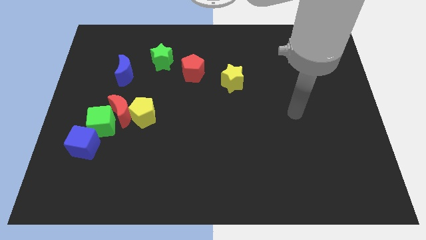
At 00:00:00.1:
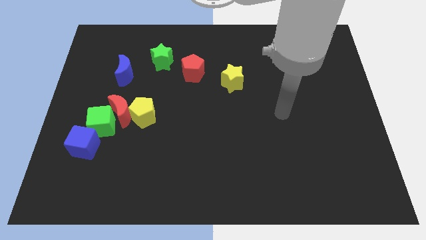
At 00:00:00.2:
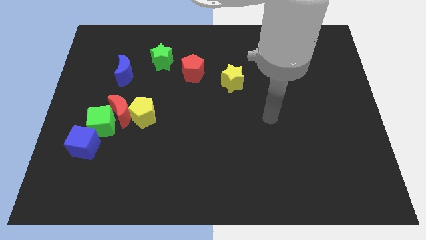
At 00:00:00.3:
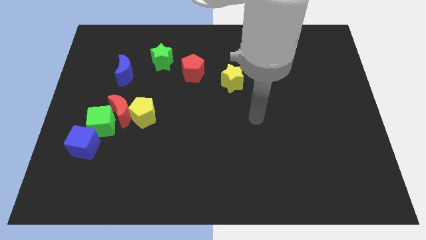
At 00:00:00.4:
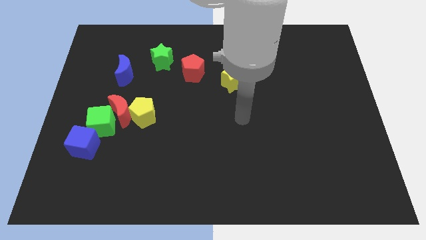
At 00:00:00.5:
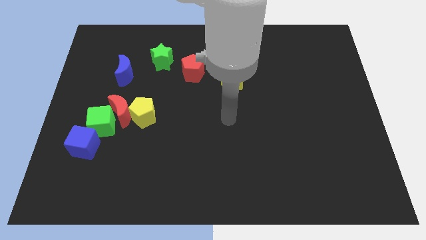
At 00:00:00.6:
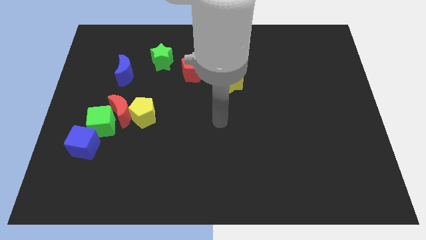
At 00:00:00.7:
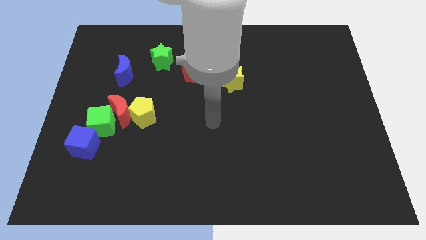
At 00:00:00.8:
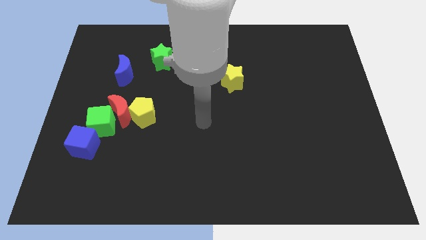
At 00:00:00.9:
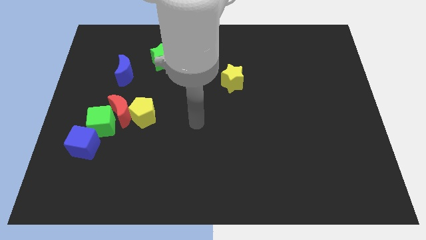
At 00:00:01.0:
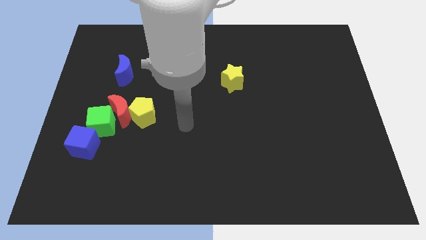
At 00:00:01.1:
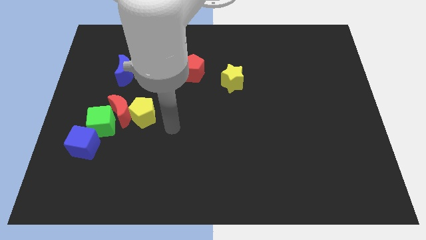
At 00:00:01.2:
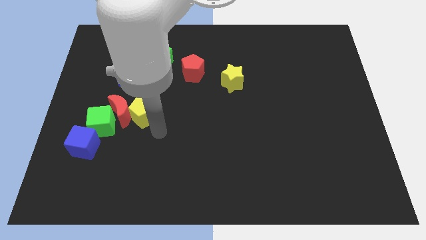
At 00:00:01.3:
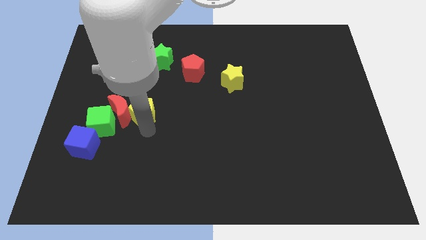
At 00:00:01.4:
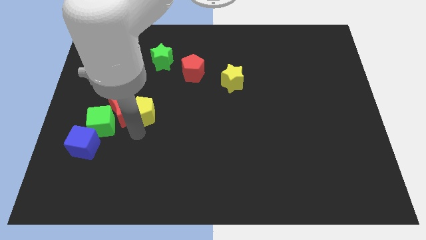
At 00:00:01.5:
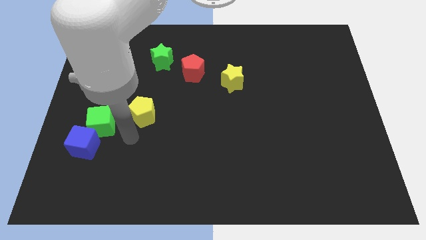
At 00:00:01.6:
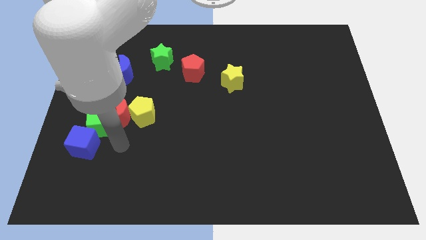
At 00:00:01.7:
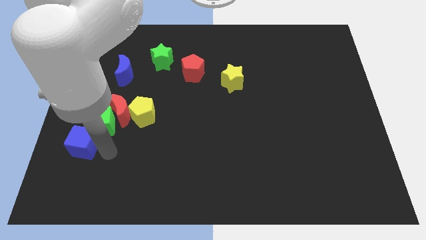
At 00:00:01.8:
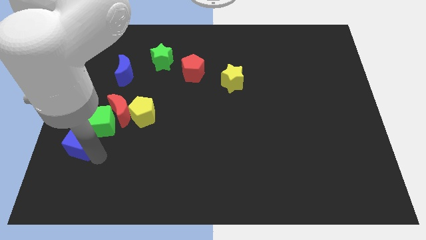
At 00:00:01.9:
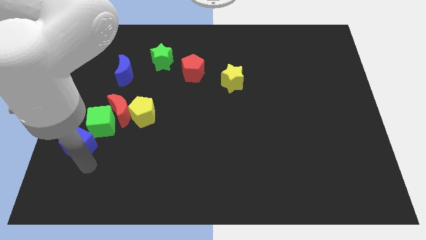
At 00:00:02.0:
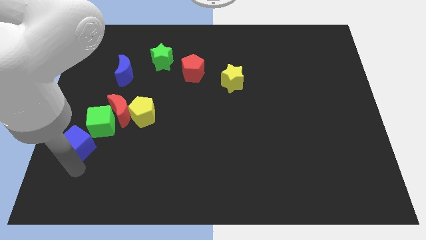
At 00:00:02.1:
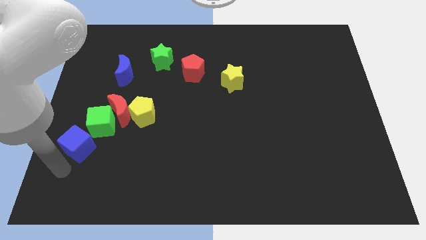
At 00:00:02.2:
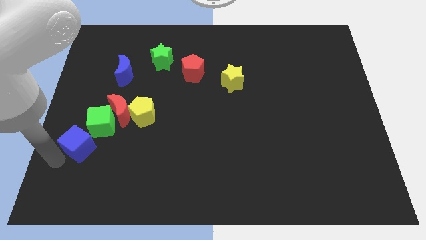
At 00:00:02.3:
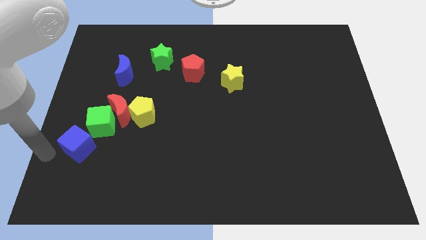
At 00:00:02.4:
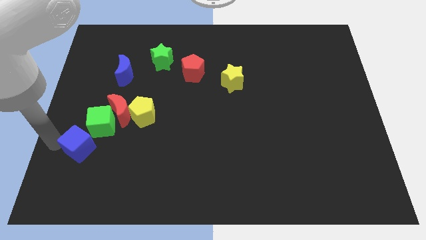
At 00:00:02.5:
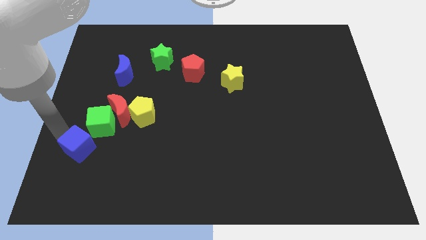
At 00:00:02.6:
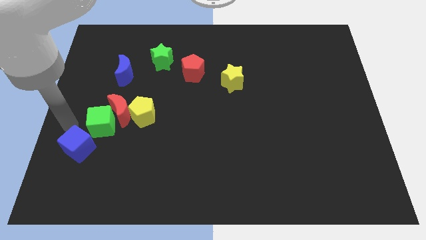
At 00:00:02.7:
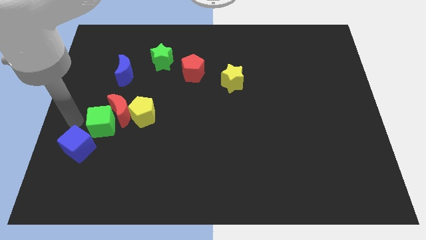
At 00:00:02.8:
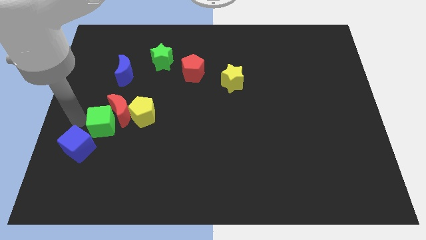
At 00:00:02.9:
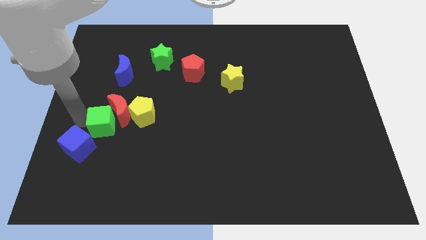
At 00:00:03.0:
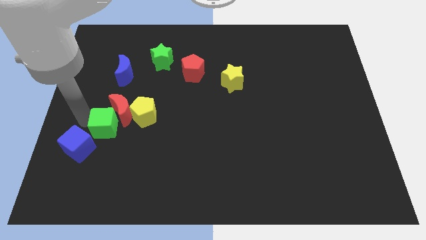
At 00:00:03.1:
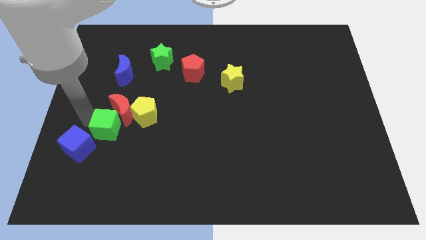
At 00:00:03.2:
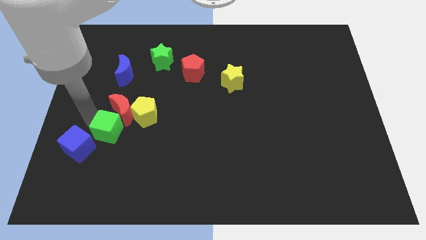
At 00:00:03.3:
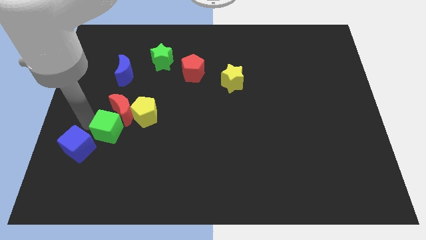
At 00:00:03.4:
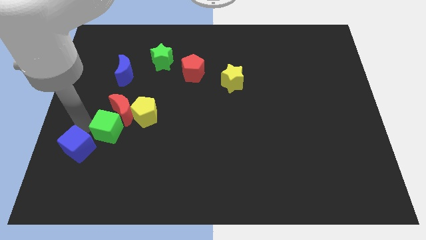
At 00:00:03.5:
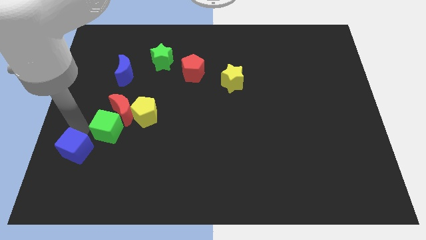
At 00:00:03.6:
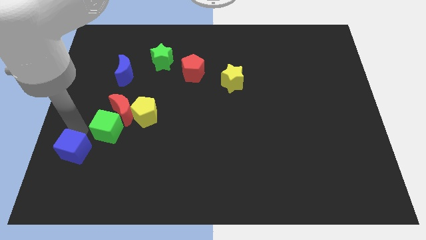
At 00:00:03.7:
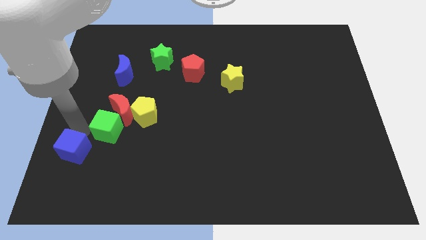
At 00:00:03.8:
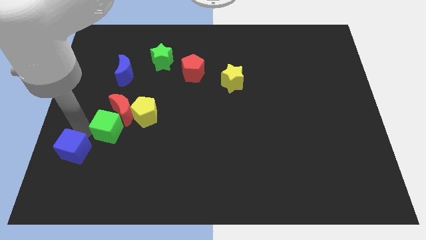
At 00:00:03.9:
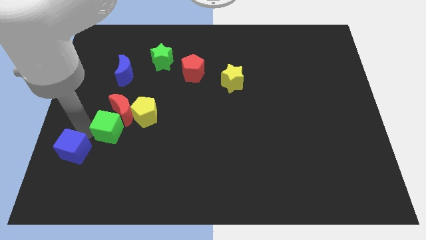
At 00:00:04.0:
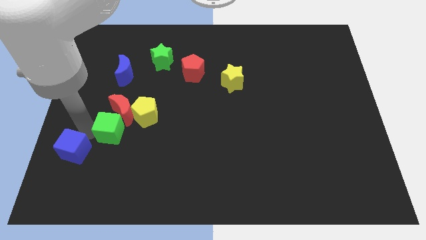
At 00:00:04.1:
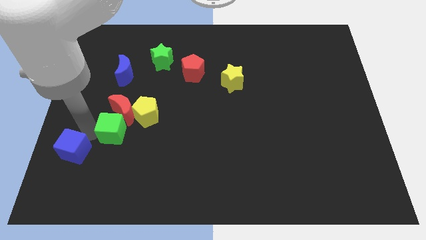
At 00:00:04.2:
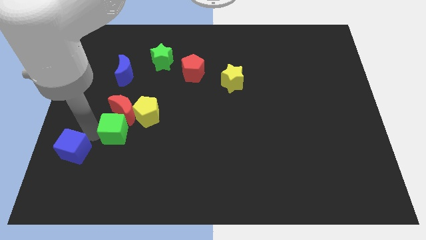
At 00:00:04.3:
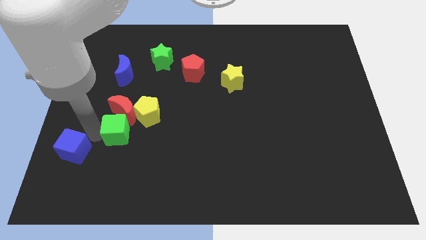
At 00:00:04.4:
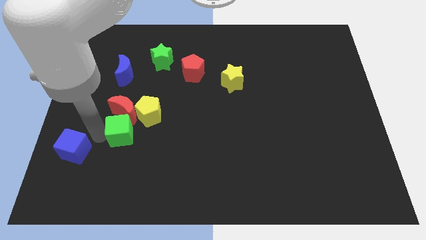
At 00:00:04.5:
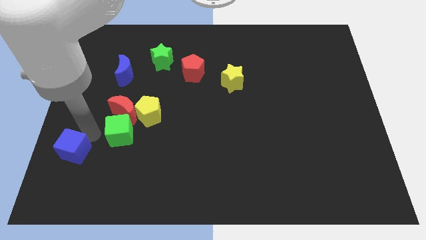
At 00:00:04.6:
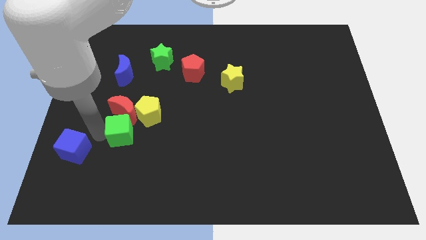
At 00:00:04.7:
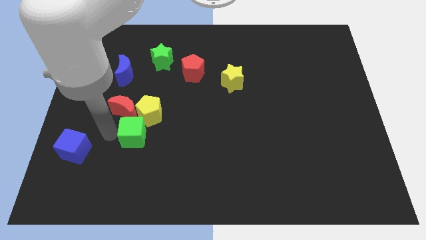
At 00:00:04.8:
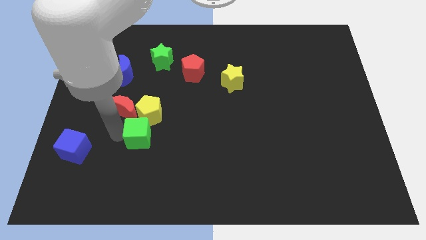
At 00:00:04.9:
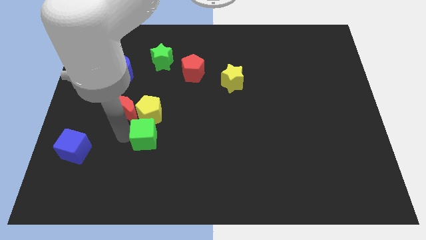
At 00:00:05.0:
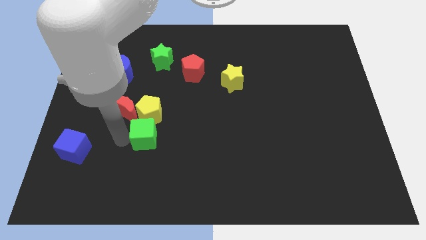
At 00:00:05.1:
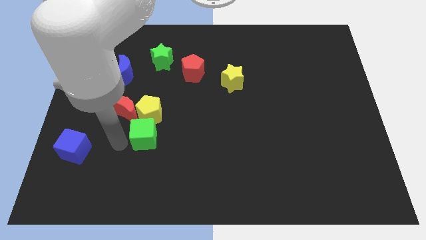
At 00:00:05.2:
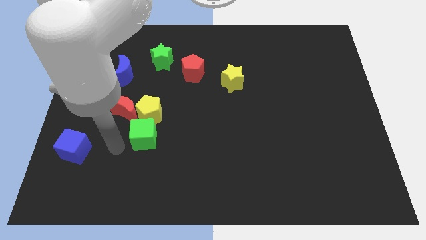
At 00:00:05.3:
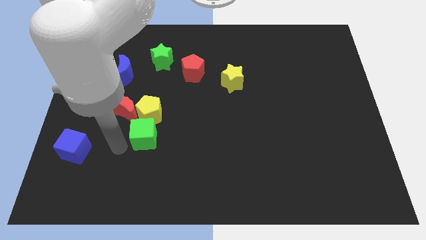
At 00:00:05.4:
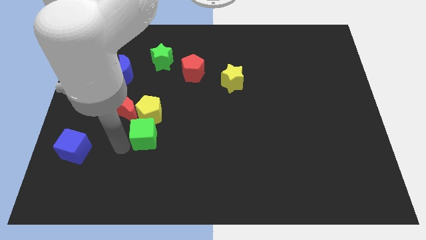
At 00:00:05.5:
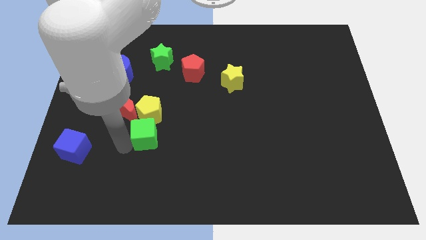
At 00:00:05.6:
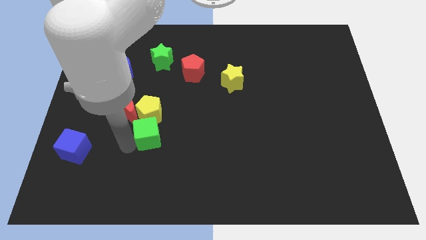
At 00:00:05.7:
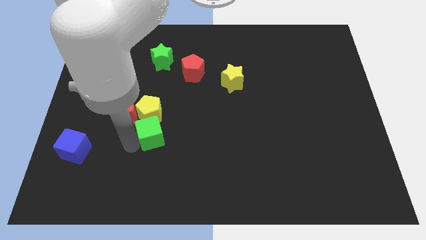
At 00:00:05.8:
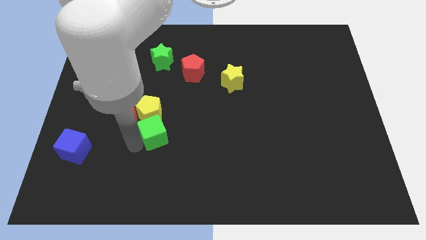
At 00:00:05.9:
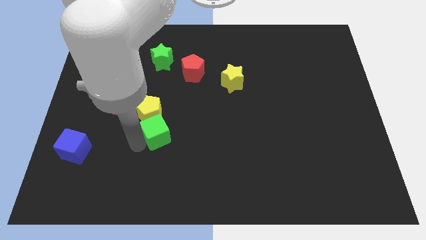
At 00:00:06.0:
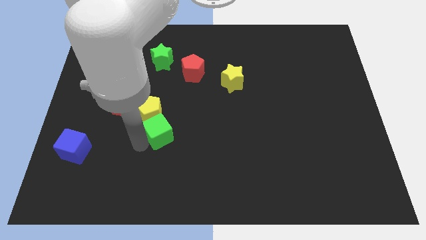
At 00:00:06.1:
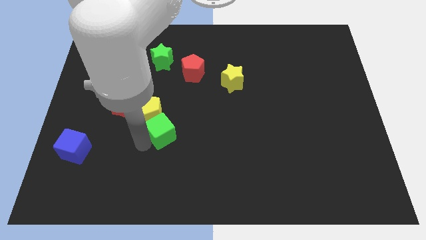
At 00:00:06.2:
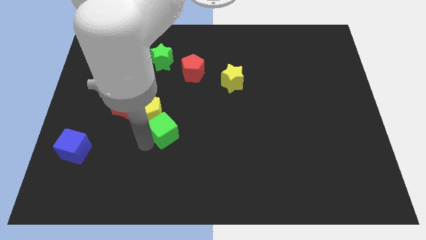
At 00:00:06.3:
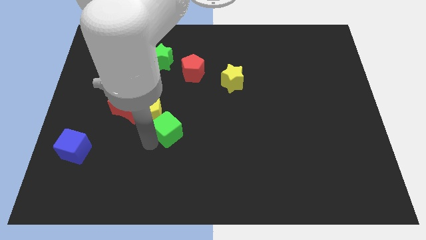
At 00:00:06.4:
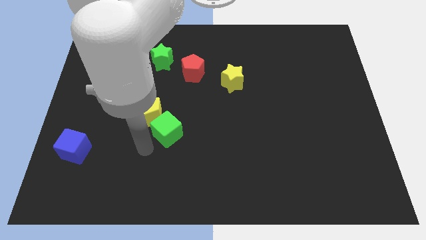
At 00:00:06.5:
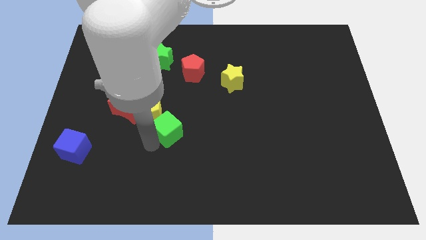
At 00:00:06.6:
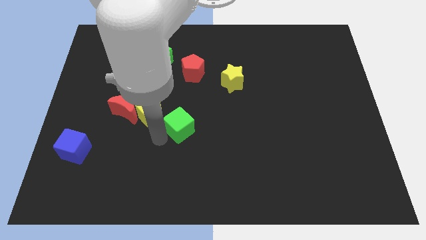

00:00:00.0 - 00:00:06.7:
put the green cube to the middle
